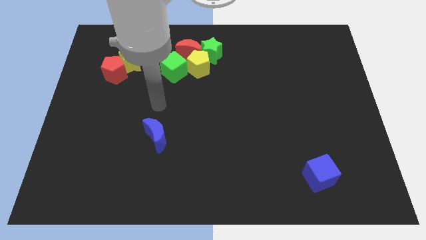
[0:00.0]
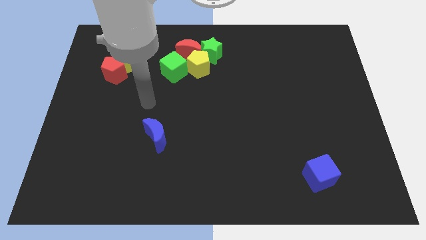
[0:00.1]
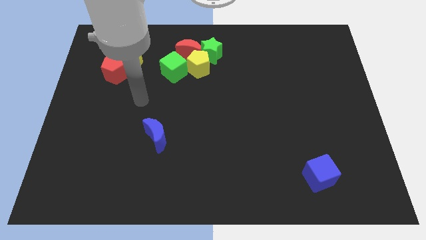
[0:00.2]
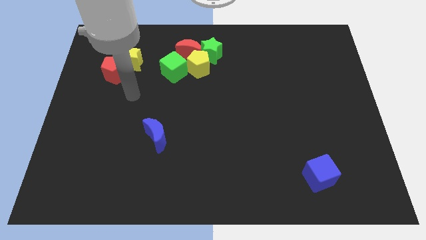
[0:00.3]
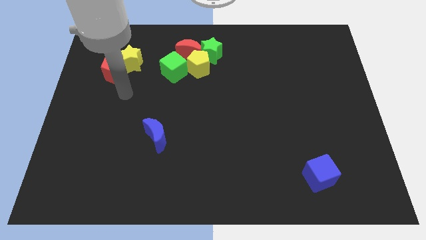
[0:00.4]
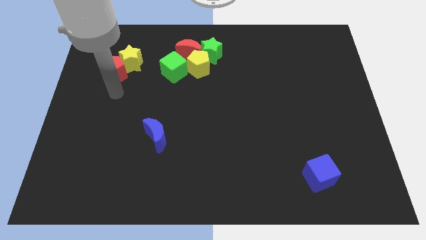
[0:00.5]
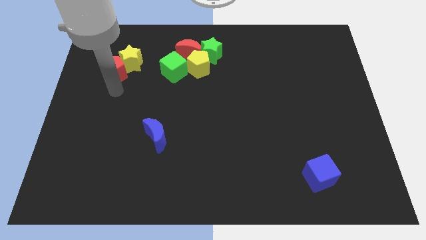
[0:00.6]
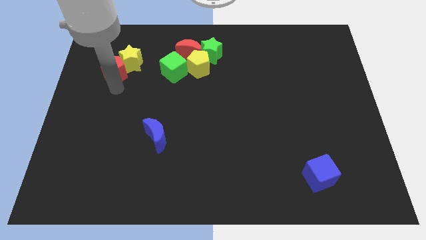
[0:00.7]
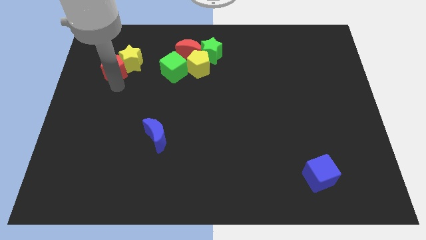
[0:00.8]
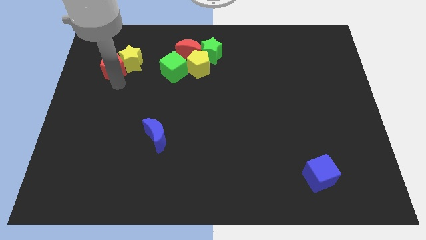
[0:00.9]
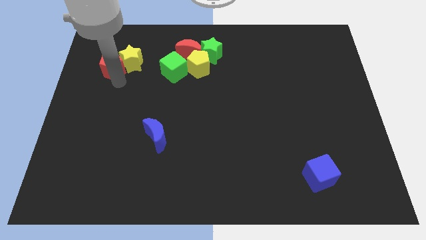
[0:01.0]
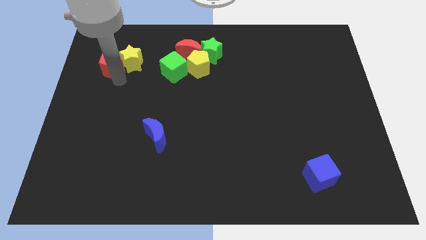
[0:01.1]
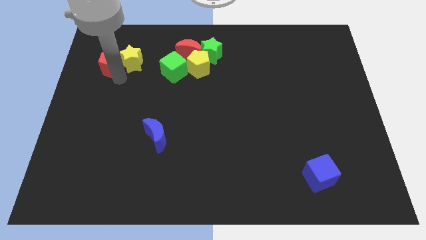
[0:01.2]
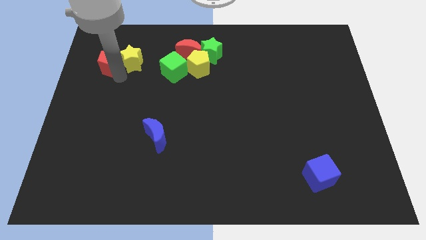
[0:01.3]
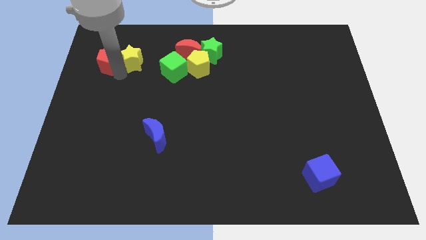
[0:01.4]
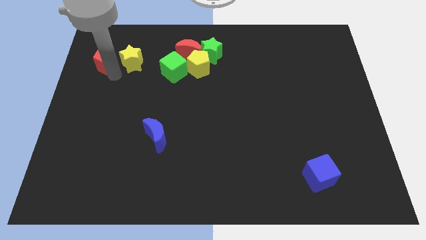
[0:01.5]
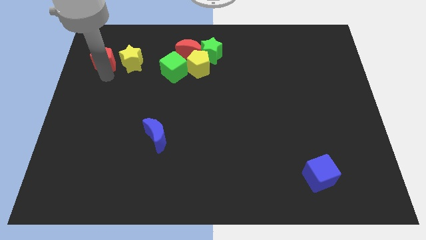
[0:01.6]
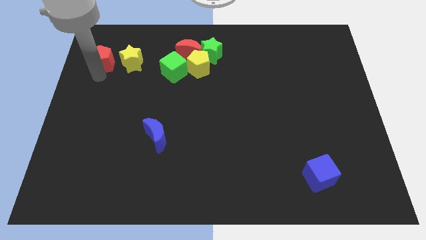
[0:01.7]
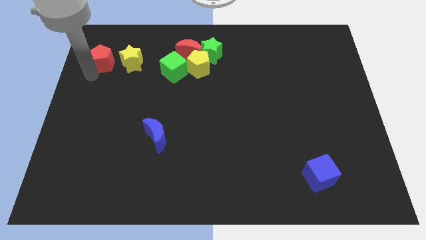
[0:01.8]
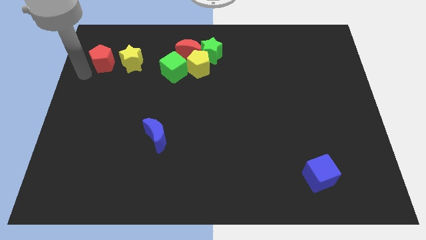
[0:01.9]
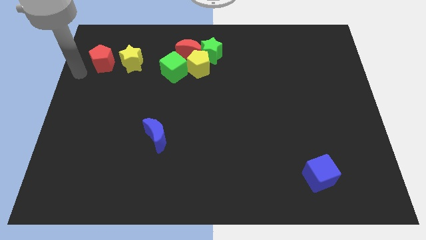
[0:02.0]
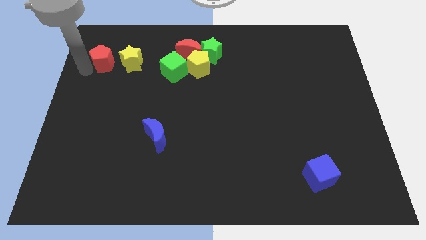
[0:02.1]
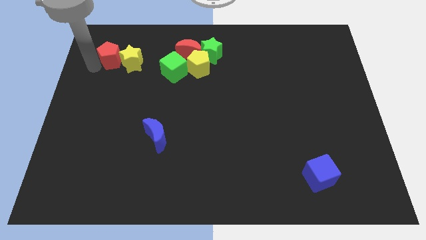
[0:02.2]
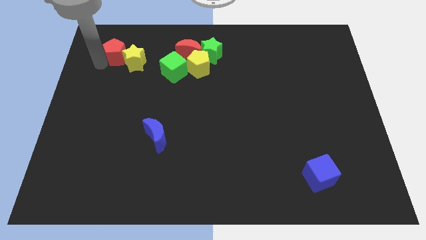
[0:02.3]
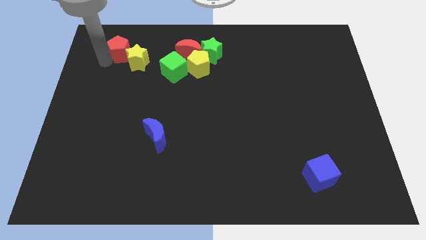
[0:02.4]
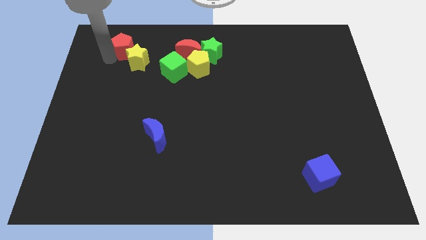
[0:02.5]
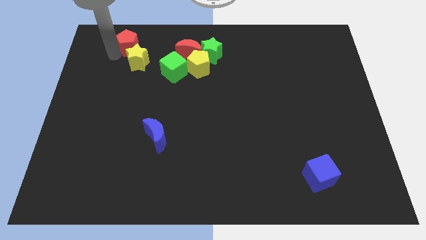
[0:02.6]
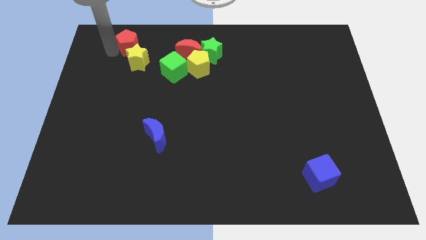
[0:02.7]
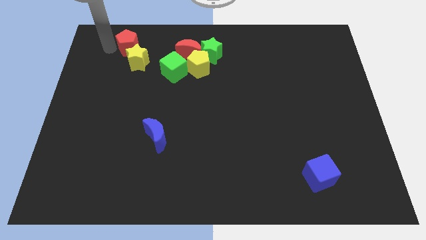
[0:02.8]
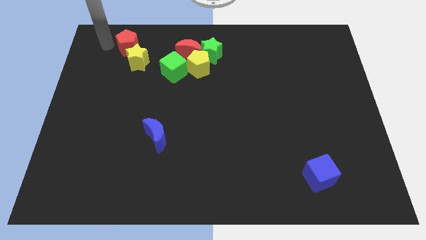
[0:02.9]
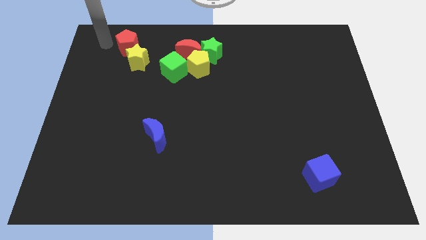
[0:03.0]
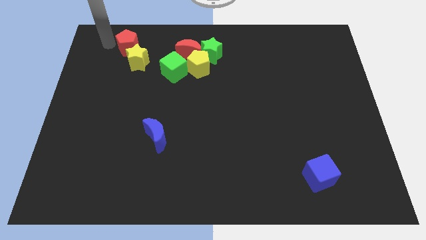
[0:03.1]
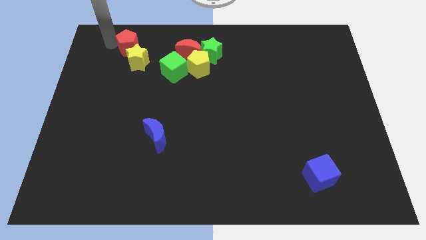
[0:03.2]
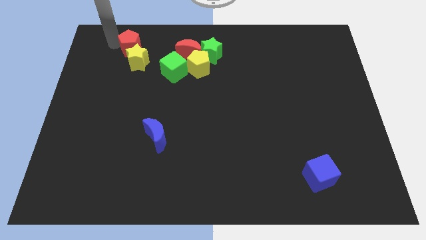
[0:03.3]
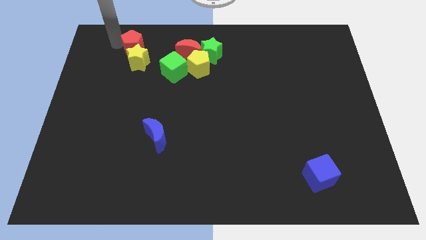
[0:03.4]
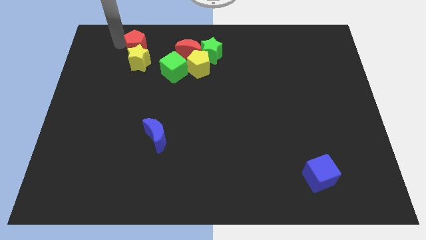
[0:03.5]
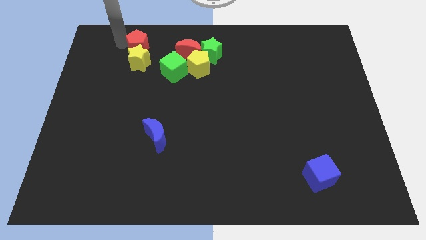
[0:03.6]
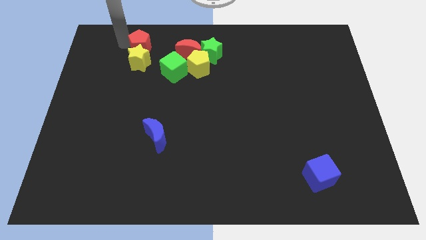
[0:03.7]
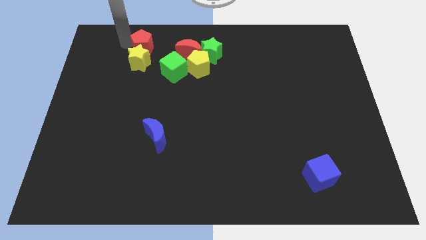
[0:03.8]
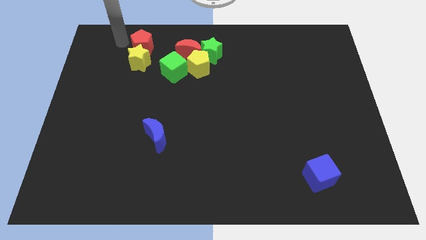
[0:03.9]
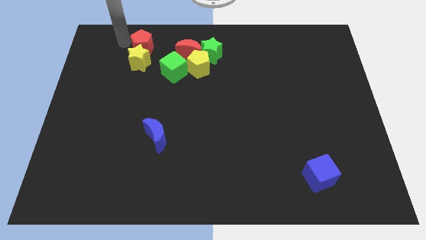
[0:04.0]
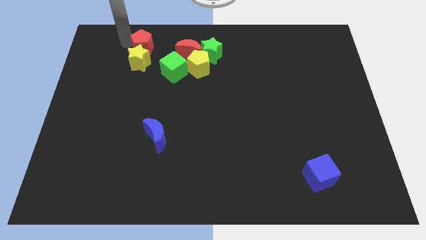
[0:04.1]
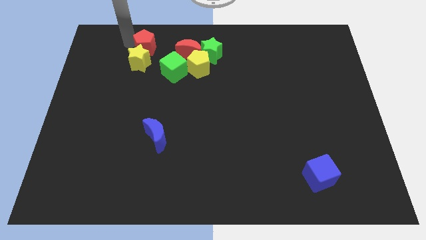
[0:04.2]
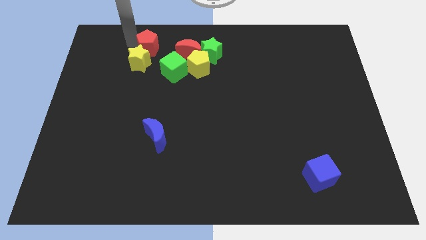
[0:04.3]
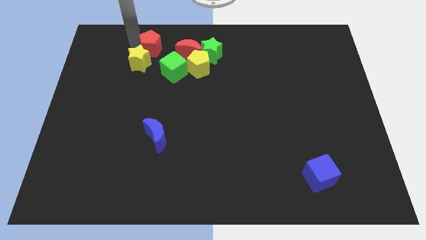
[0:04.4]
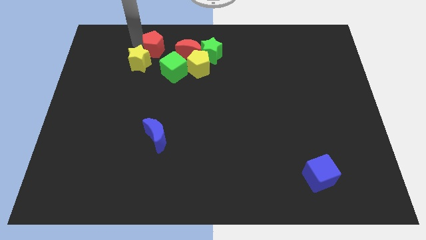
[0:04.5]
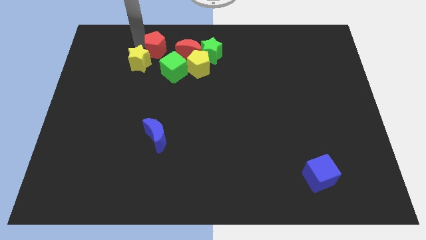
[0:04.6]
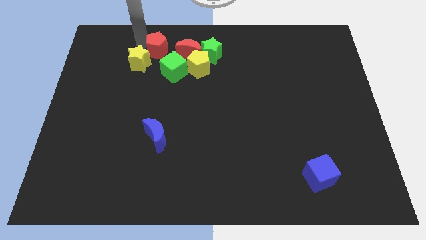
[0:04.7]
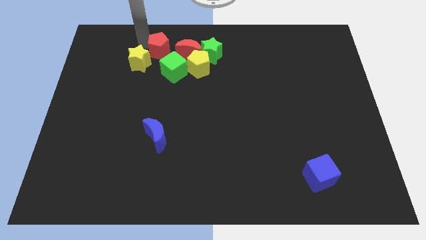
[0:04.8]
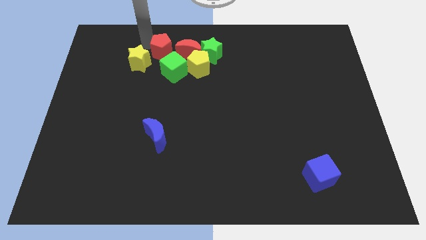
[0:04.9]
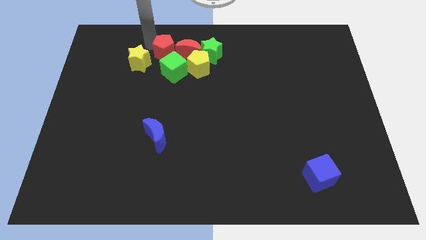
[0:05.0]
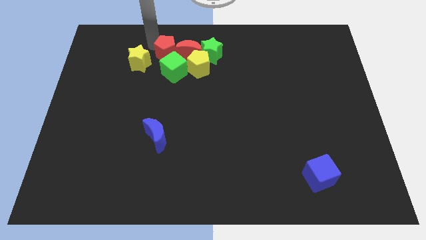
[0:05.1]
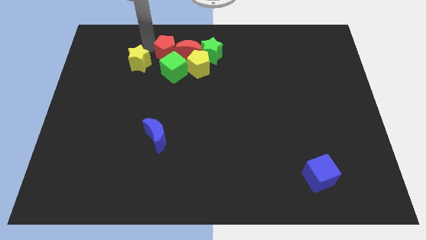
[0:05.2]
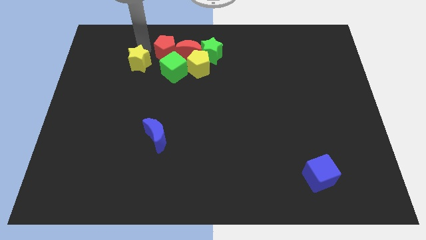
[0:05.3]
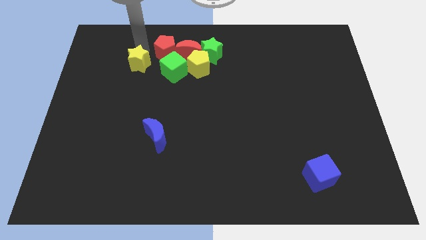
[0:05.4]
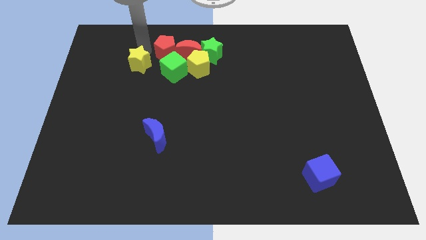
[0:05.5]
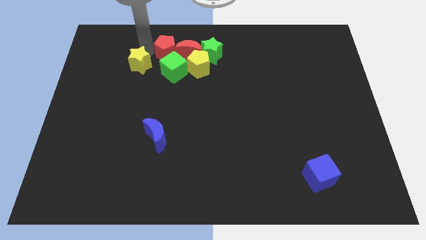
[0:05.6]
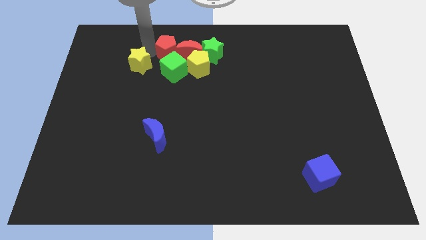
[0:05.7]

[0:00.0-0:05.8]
slide the red pentagon next to the red moon

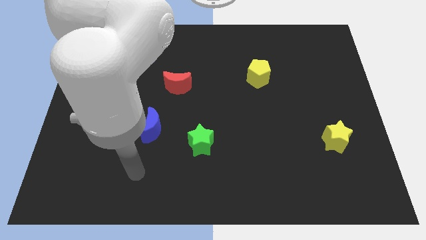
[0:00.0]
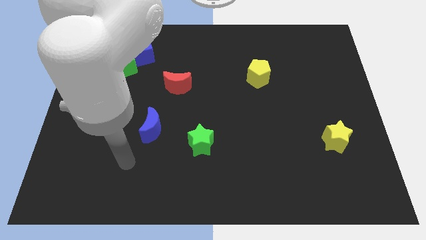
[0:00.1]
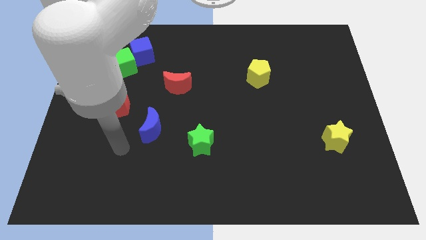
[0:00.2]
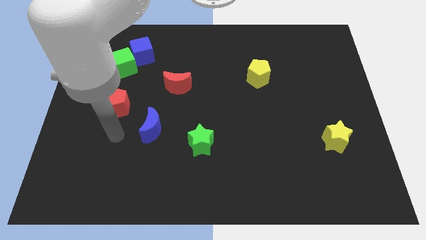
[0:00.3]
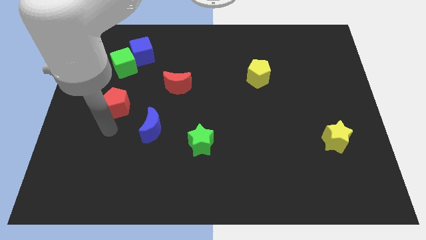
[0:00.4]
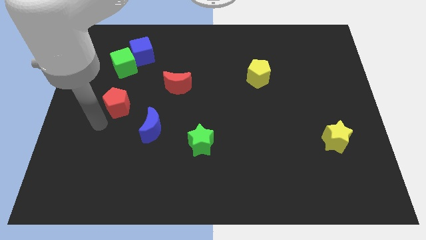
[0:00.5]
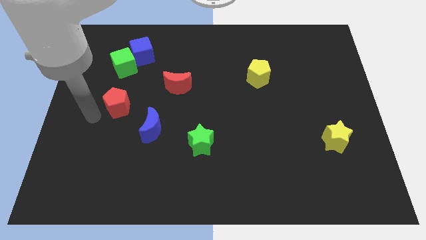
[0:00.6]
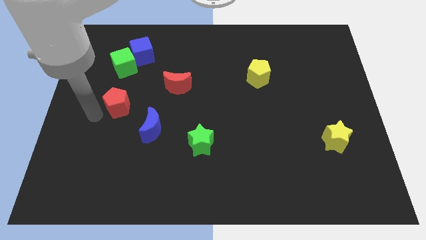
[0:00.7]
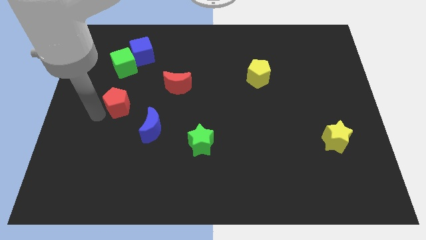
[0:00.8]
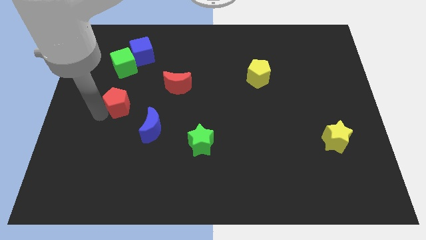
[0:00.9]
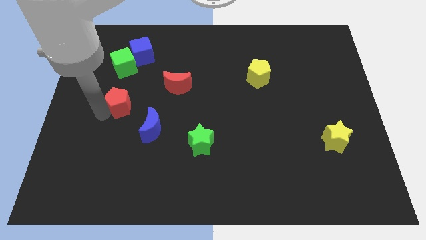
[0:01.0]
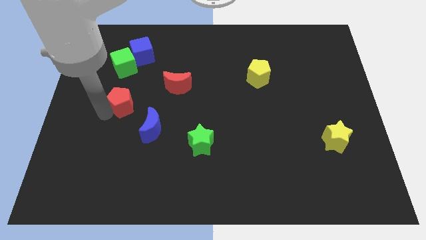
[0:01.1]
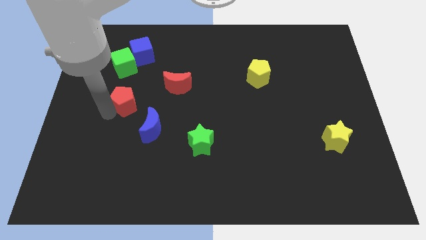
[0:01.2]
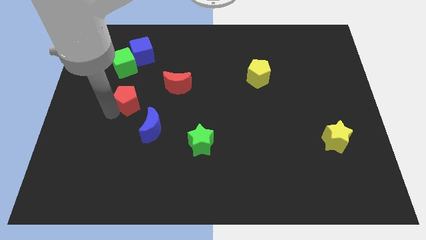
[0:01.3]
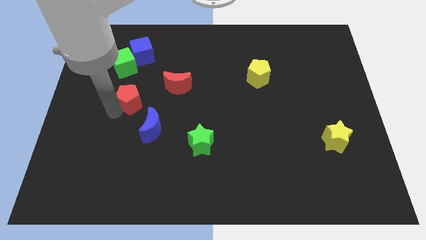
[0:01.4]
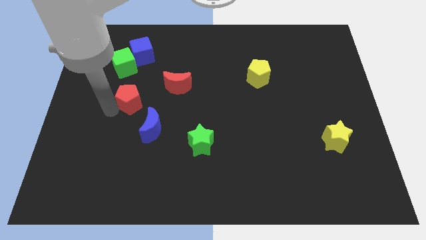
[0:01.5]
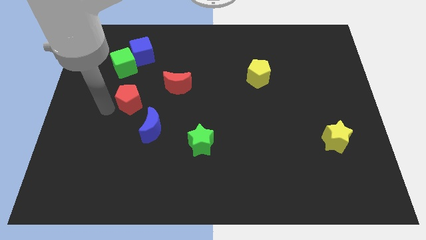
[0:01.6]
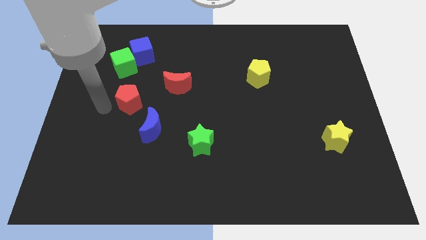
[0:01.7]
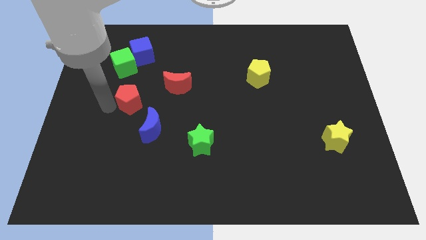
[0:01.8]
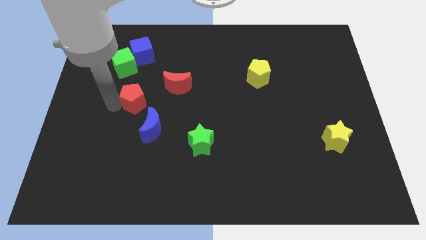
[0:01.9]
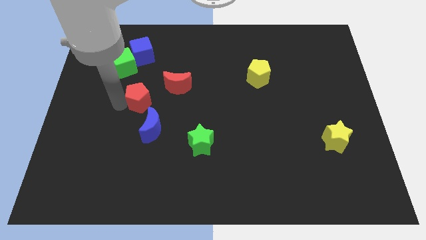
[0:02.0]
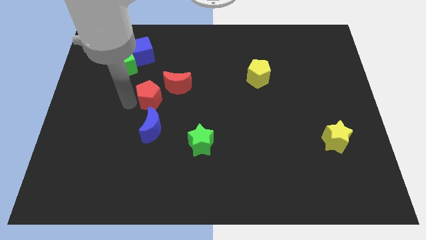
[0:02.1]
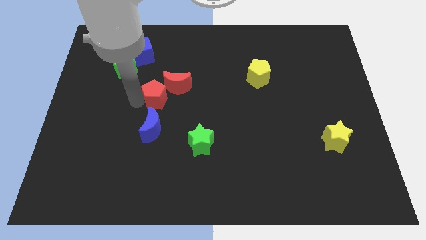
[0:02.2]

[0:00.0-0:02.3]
slide the red pentagon to the red moon
